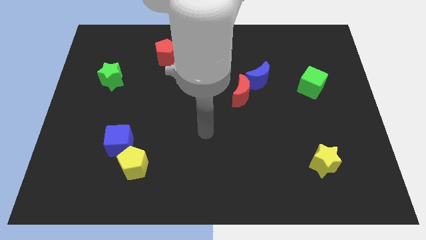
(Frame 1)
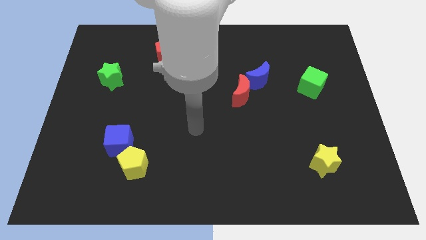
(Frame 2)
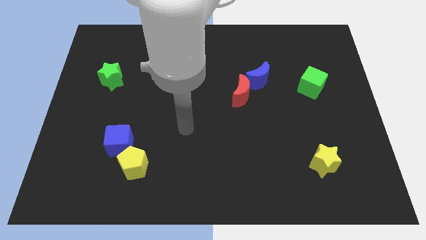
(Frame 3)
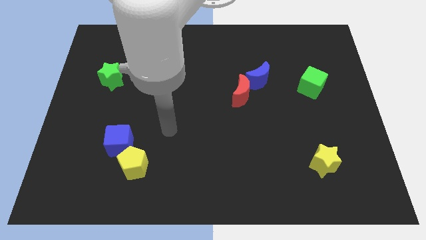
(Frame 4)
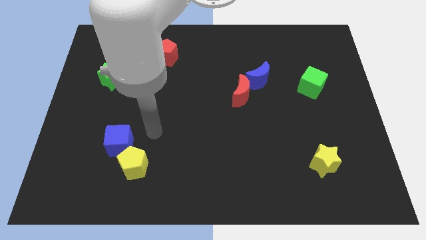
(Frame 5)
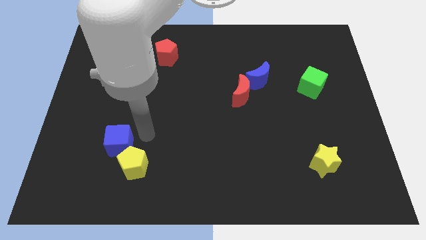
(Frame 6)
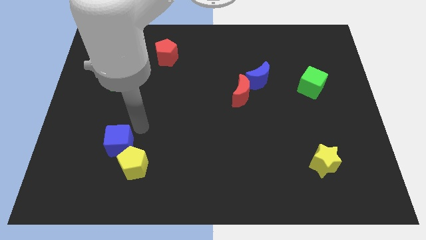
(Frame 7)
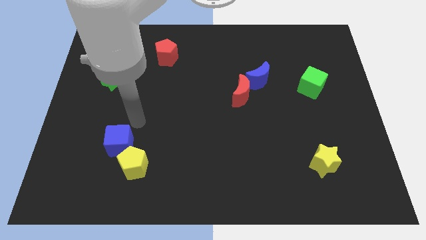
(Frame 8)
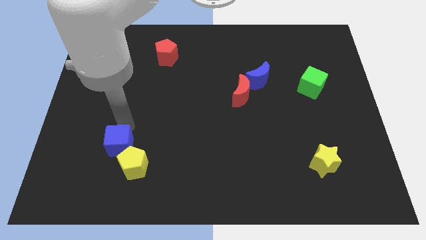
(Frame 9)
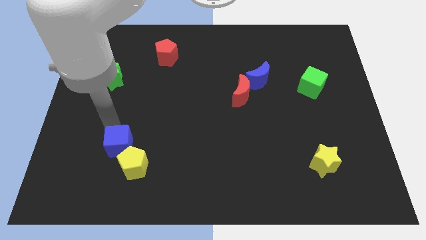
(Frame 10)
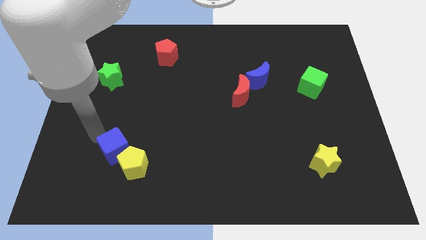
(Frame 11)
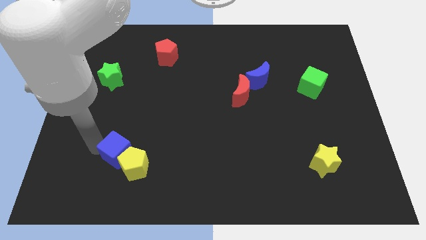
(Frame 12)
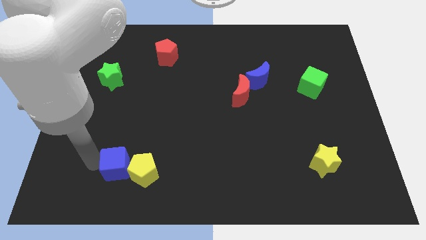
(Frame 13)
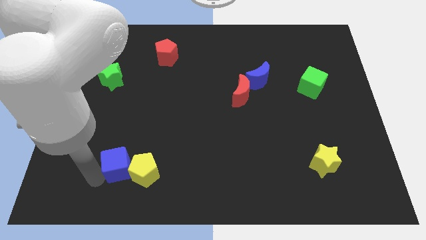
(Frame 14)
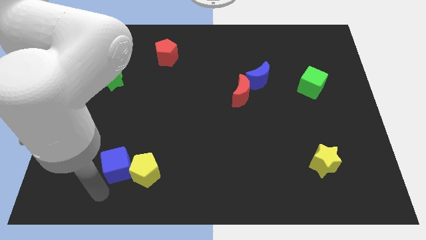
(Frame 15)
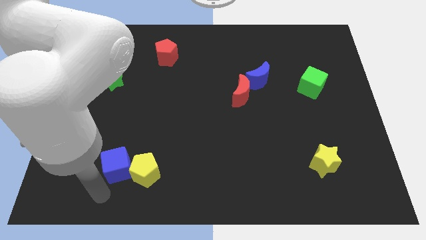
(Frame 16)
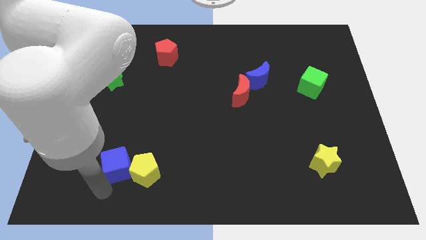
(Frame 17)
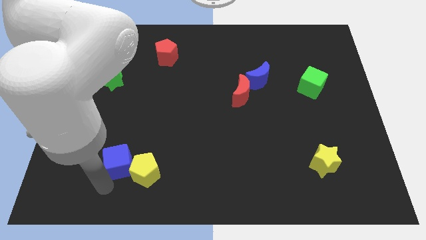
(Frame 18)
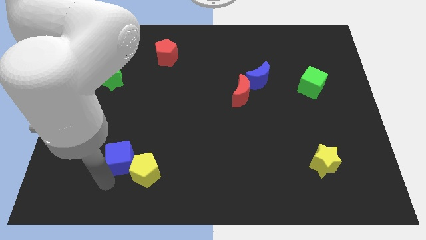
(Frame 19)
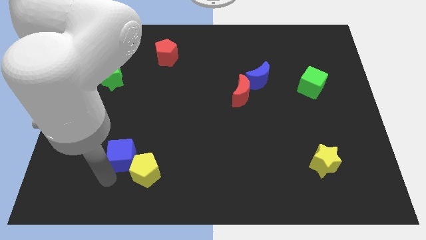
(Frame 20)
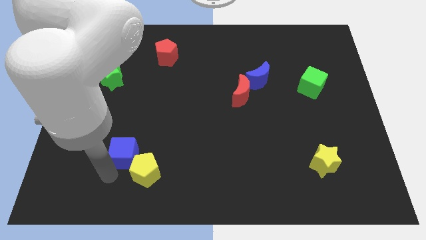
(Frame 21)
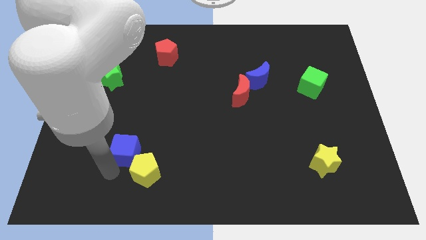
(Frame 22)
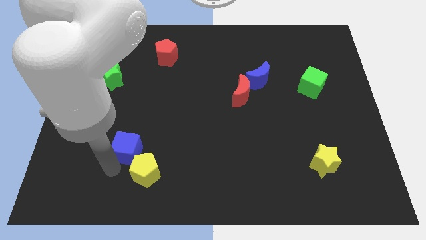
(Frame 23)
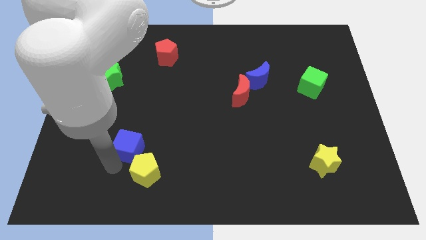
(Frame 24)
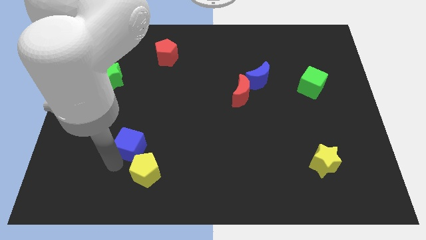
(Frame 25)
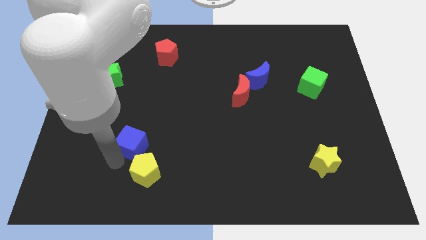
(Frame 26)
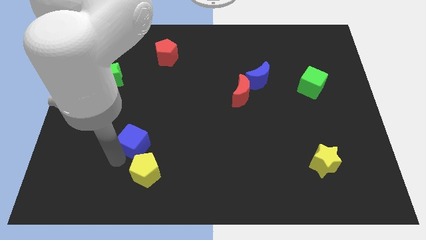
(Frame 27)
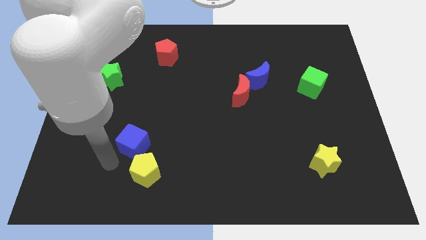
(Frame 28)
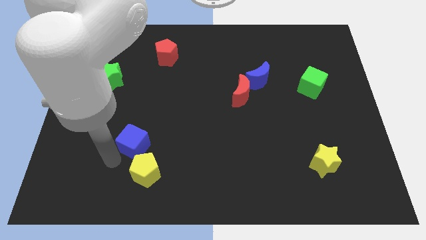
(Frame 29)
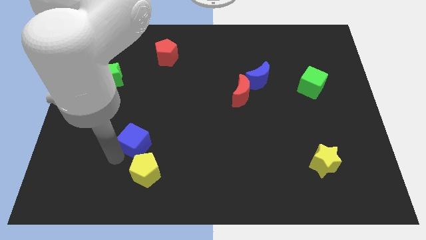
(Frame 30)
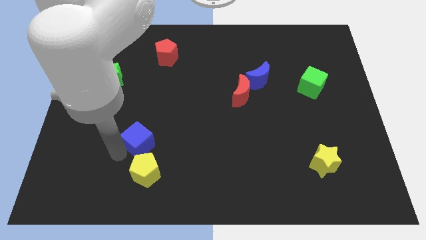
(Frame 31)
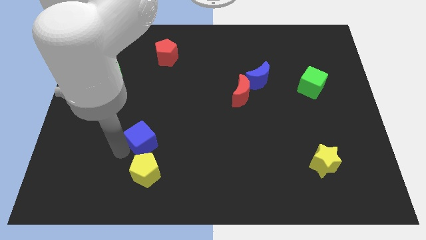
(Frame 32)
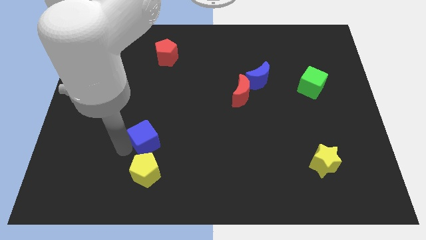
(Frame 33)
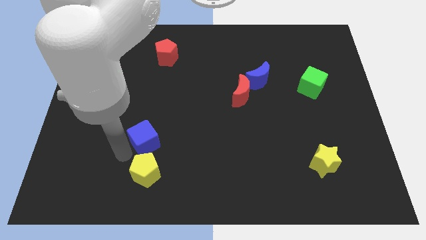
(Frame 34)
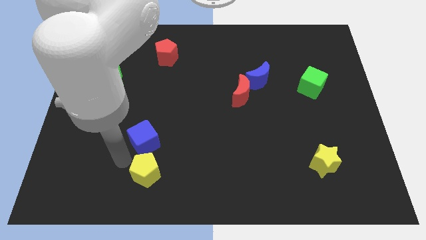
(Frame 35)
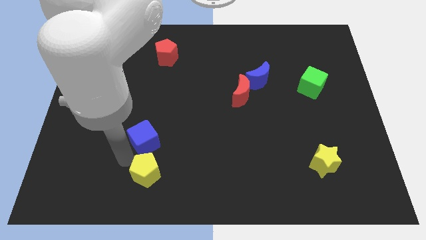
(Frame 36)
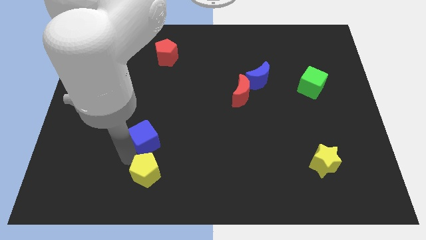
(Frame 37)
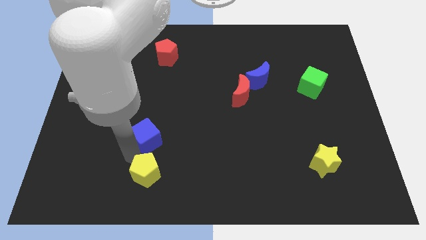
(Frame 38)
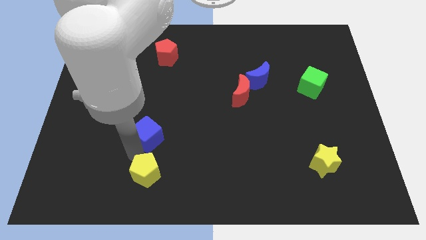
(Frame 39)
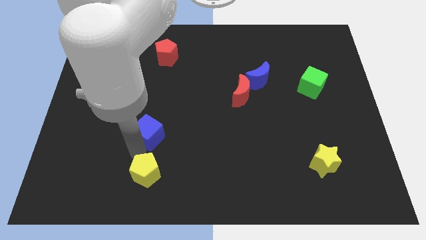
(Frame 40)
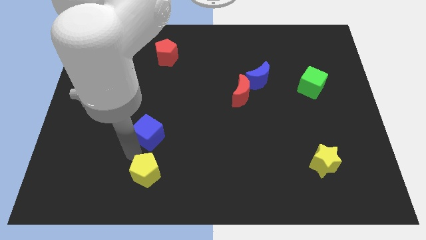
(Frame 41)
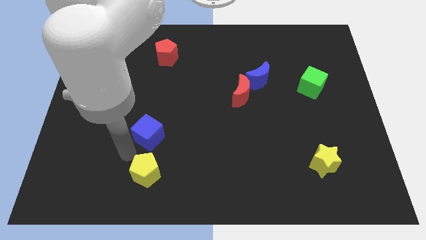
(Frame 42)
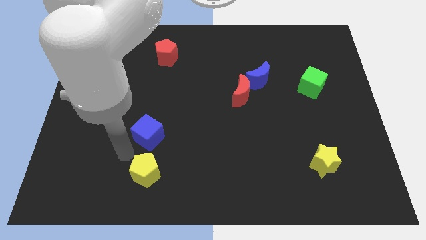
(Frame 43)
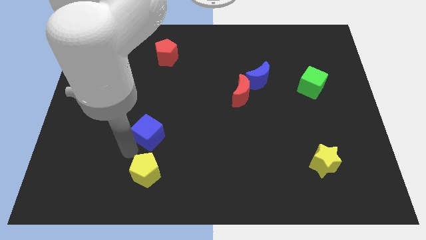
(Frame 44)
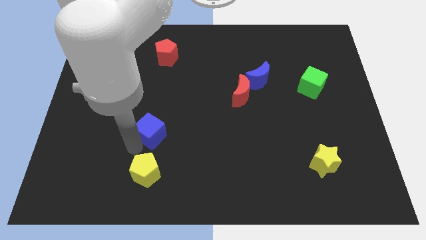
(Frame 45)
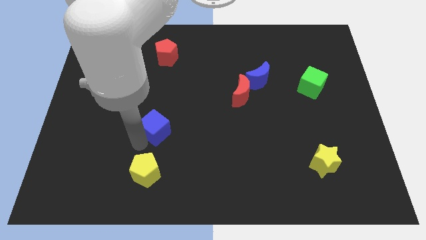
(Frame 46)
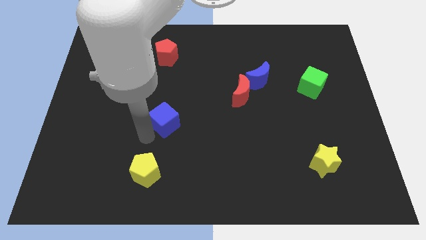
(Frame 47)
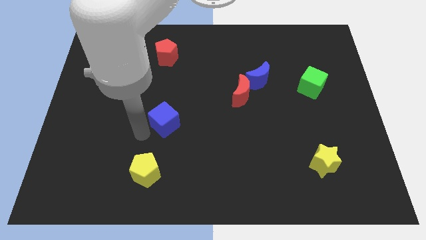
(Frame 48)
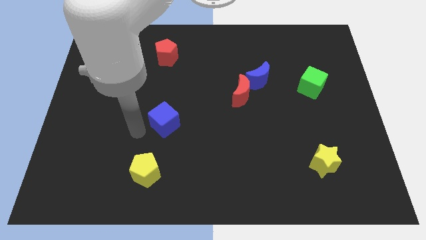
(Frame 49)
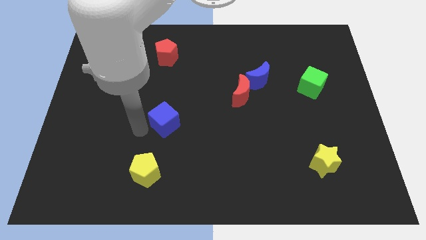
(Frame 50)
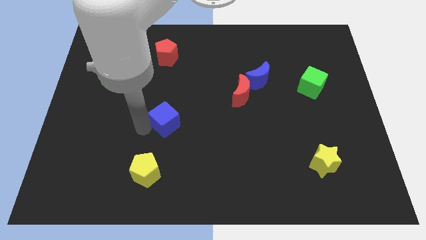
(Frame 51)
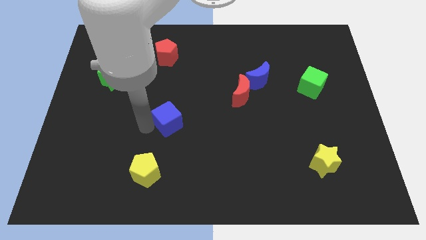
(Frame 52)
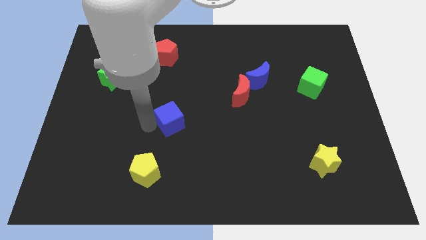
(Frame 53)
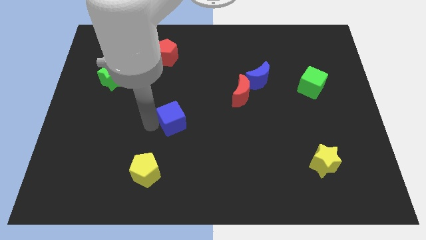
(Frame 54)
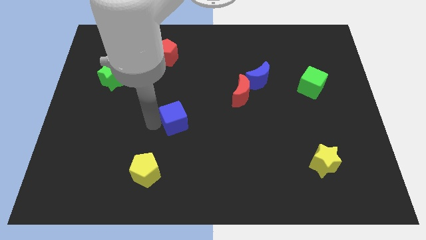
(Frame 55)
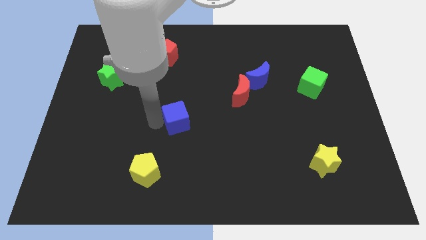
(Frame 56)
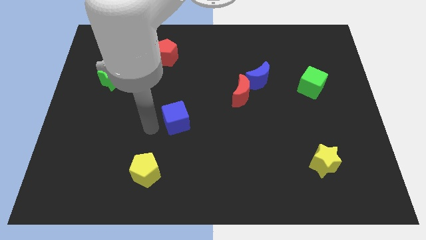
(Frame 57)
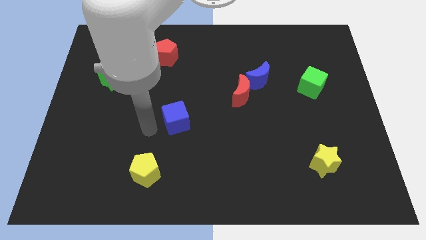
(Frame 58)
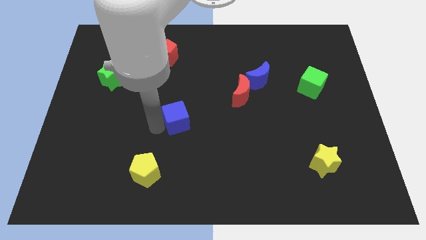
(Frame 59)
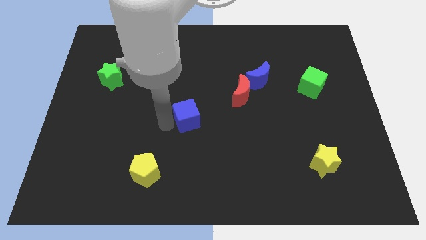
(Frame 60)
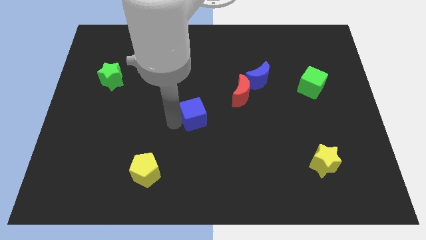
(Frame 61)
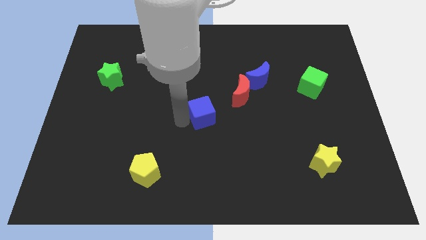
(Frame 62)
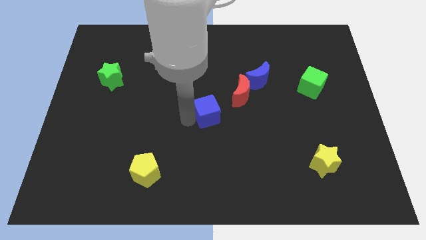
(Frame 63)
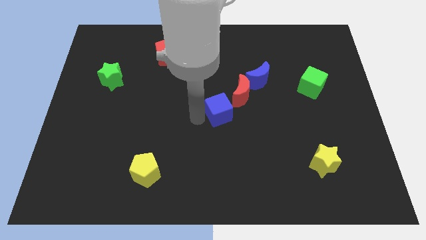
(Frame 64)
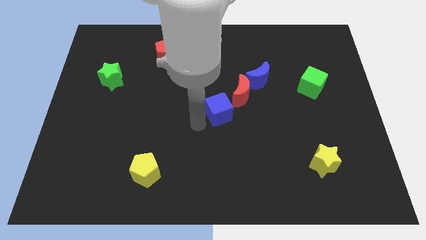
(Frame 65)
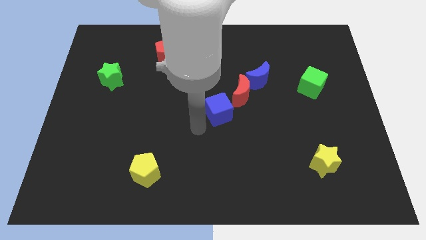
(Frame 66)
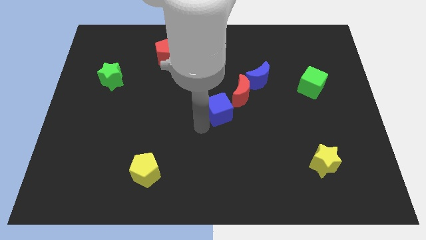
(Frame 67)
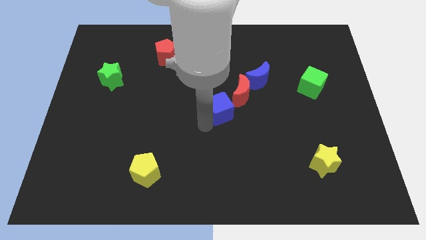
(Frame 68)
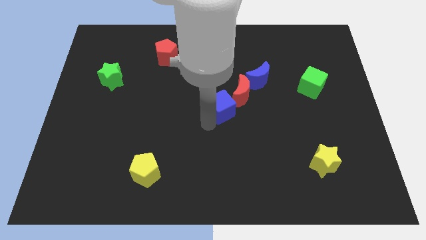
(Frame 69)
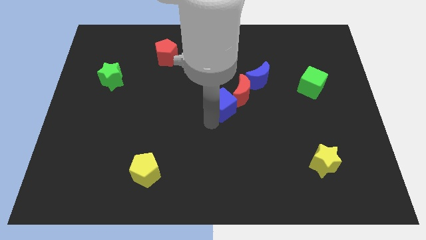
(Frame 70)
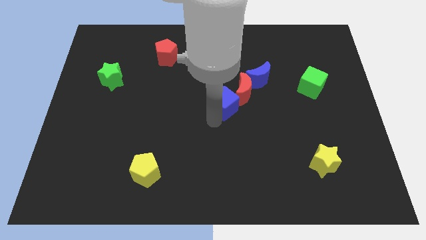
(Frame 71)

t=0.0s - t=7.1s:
push the blue cube to the red moon

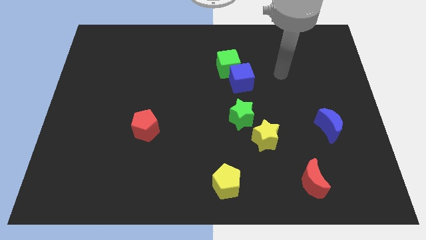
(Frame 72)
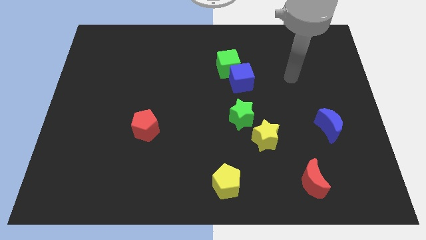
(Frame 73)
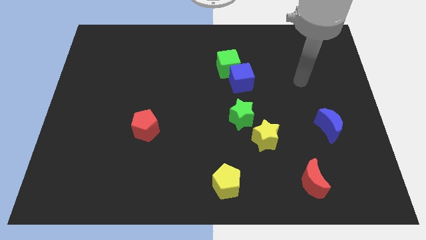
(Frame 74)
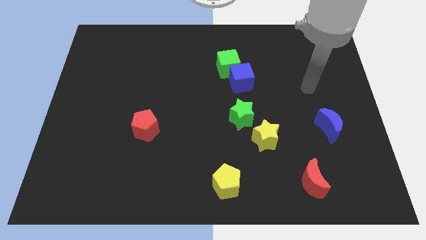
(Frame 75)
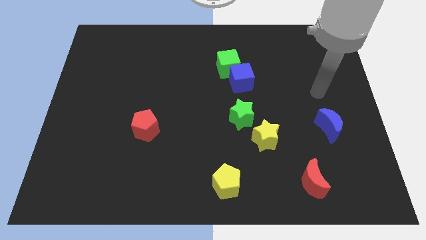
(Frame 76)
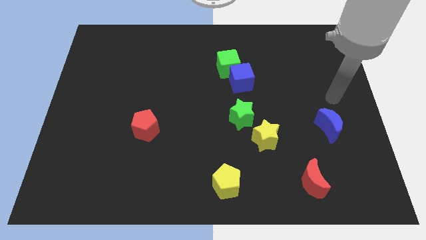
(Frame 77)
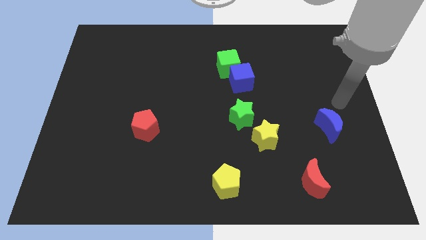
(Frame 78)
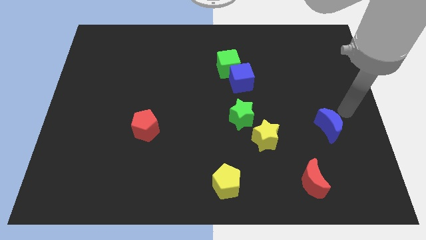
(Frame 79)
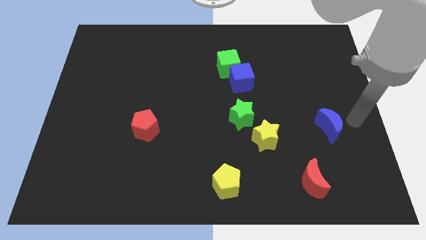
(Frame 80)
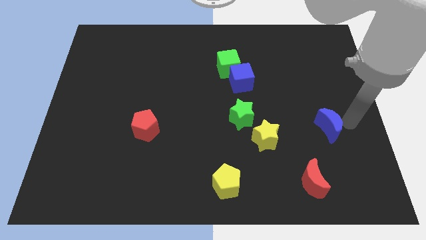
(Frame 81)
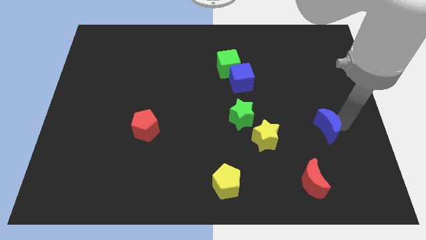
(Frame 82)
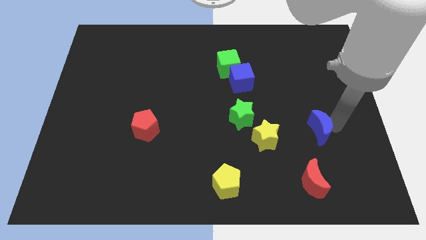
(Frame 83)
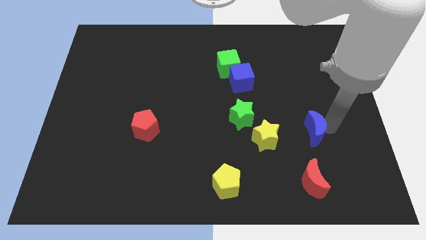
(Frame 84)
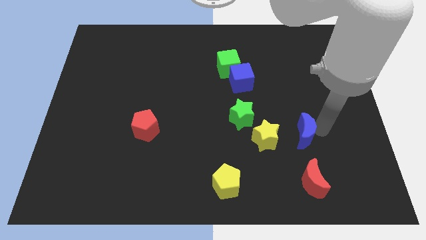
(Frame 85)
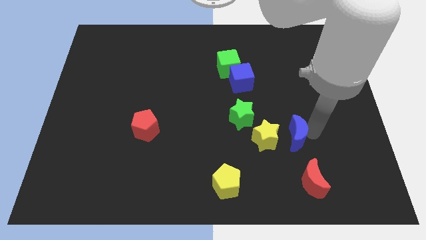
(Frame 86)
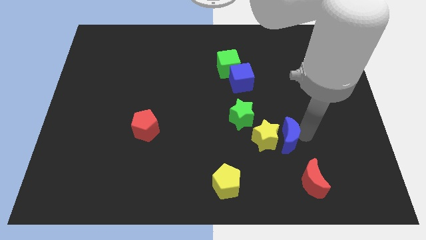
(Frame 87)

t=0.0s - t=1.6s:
put the blue moon to the yellow star
